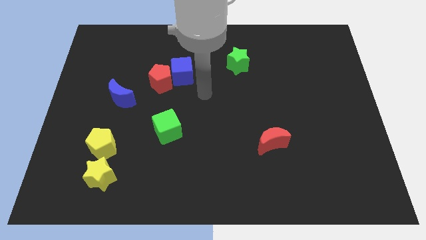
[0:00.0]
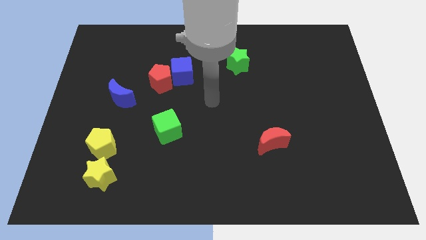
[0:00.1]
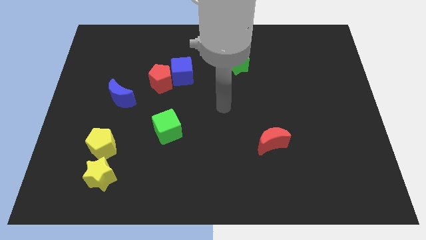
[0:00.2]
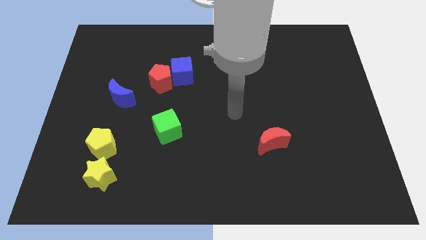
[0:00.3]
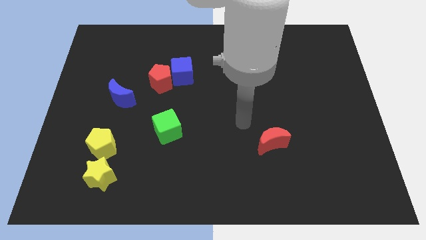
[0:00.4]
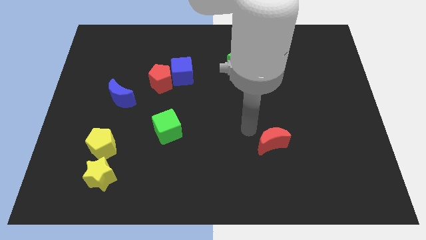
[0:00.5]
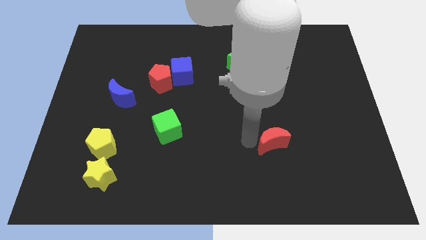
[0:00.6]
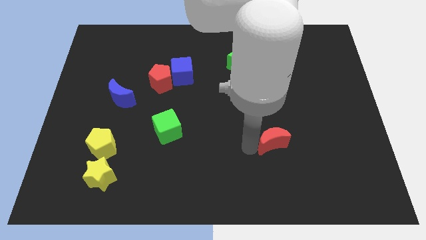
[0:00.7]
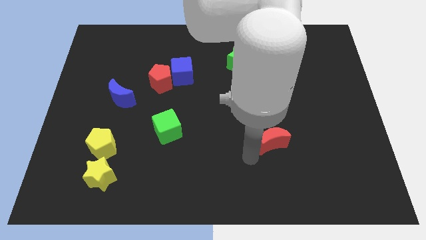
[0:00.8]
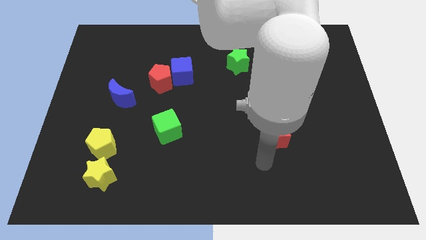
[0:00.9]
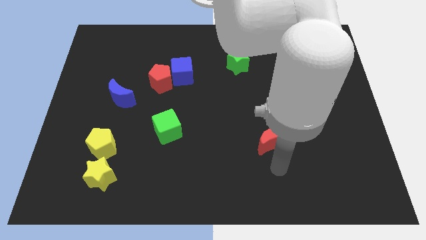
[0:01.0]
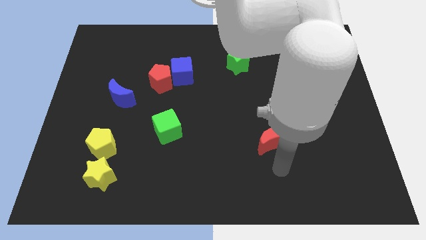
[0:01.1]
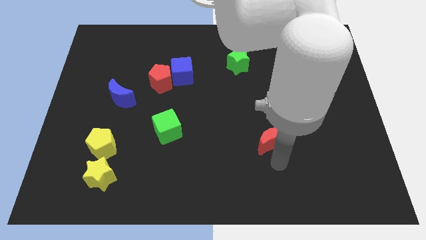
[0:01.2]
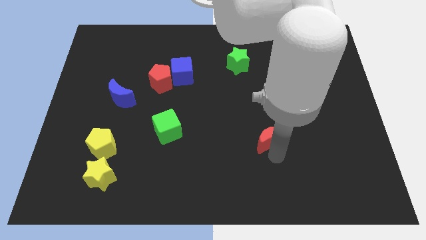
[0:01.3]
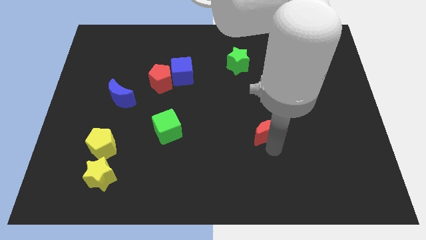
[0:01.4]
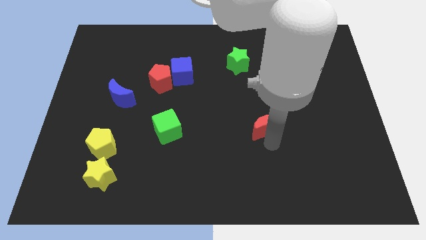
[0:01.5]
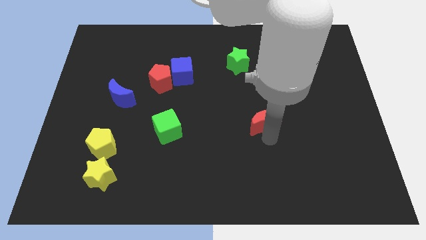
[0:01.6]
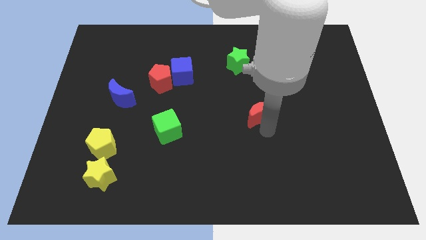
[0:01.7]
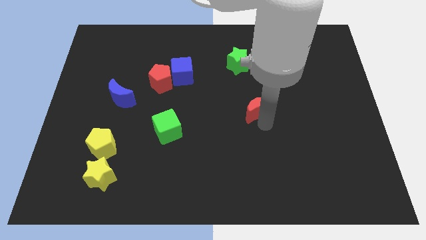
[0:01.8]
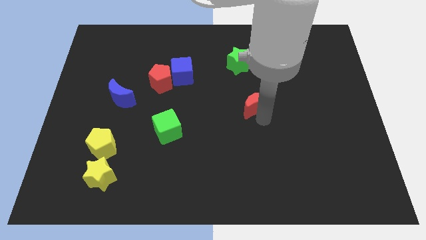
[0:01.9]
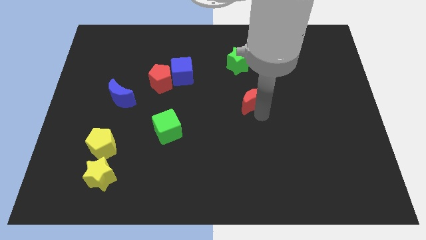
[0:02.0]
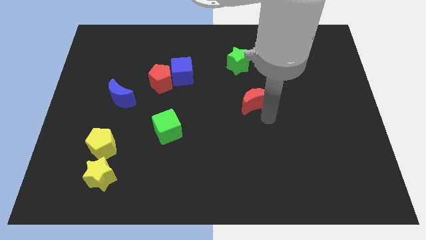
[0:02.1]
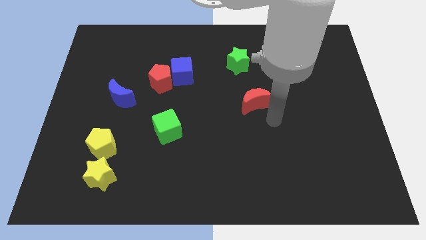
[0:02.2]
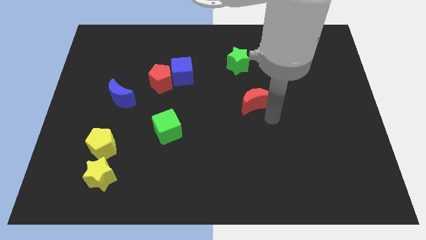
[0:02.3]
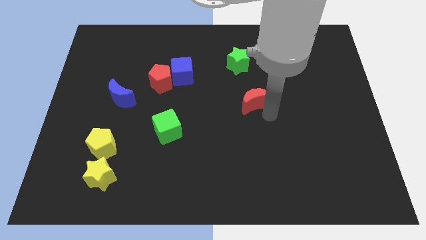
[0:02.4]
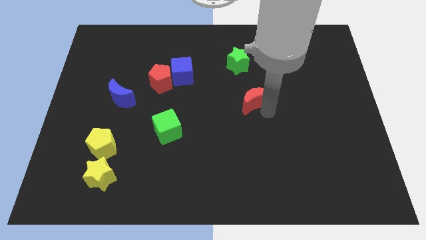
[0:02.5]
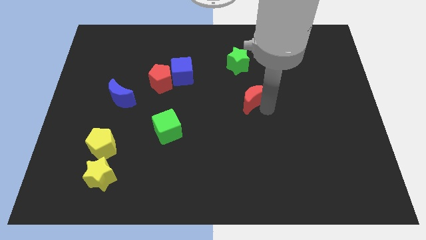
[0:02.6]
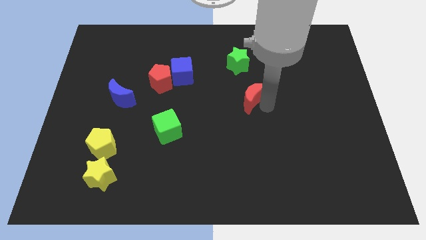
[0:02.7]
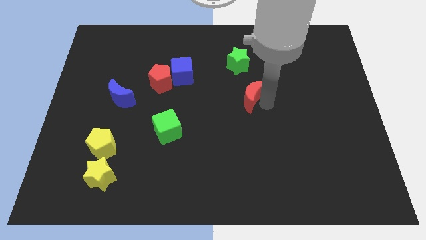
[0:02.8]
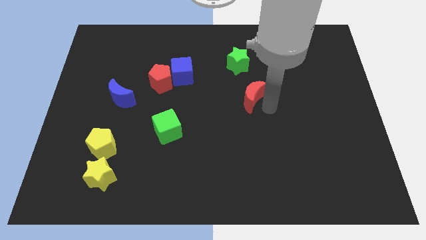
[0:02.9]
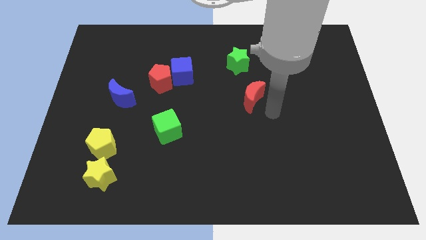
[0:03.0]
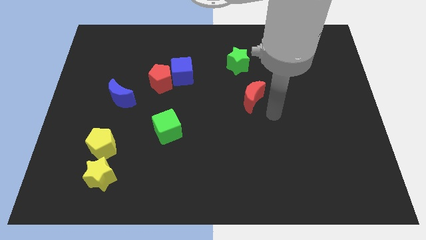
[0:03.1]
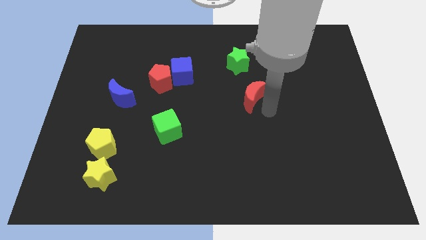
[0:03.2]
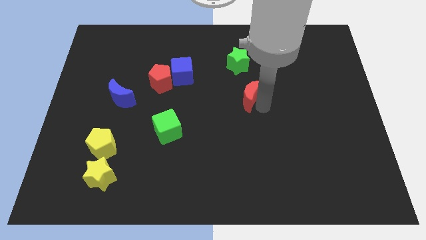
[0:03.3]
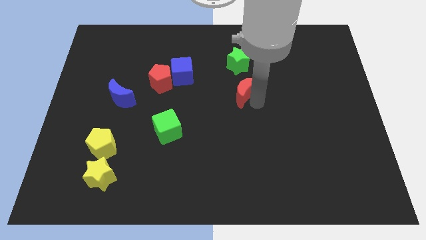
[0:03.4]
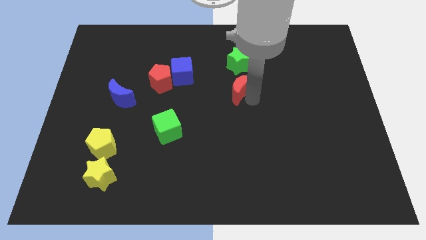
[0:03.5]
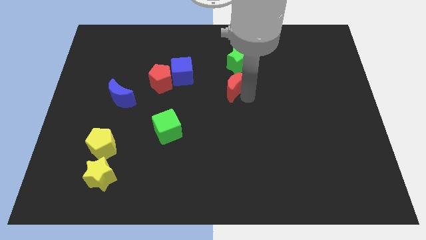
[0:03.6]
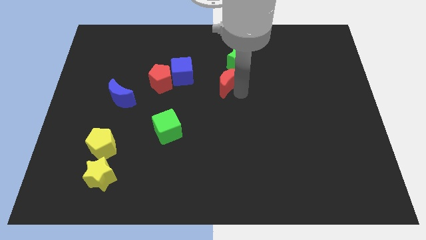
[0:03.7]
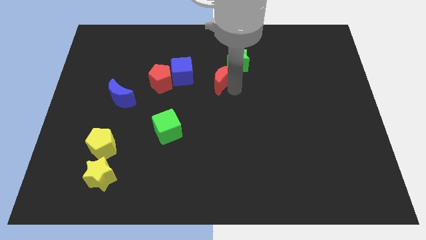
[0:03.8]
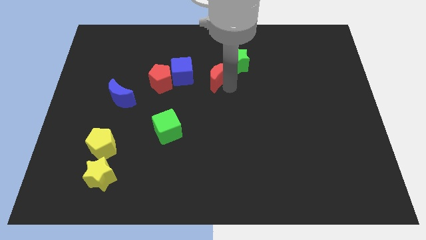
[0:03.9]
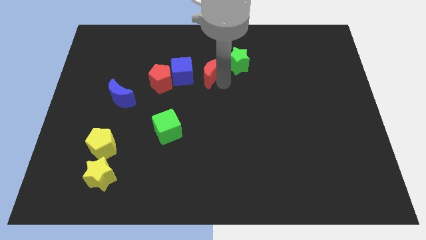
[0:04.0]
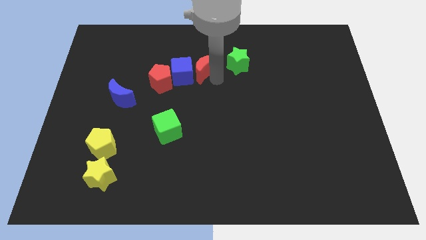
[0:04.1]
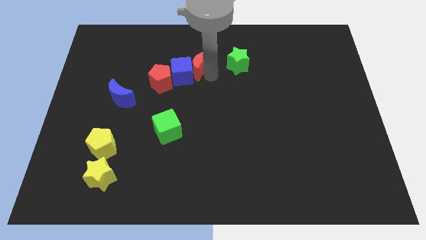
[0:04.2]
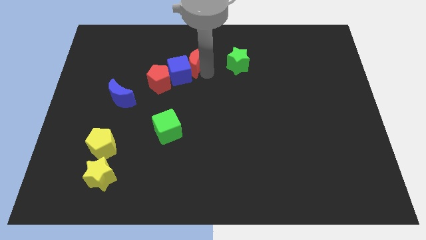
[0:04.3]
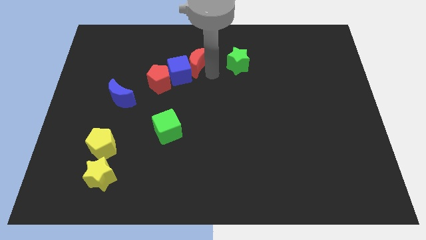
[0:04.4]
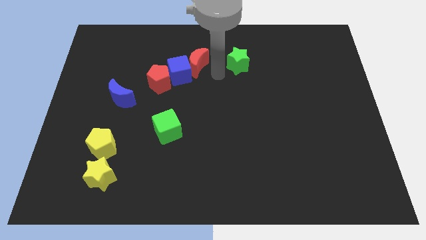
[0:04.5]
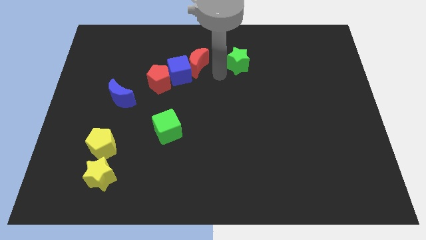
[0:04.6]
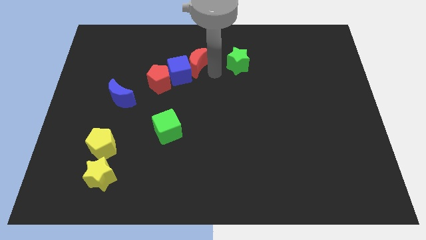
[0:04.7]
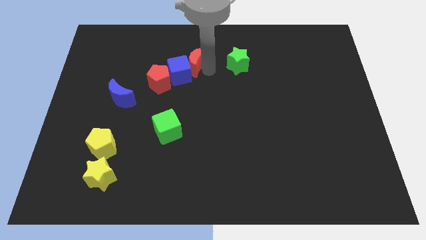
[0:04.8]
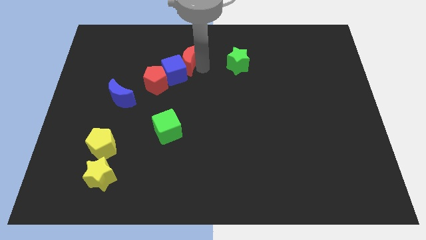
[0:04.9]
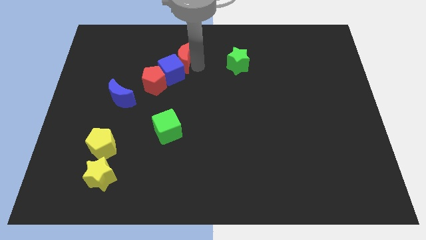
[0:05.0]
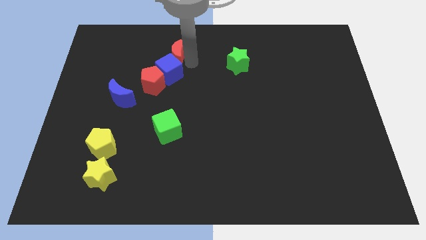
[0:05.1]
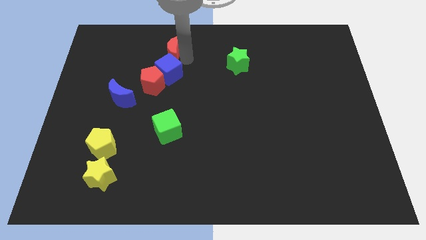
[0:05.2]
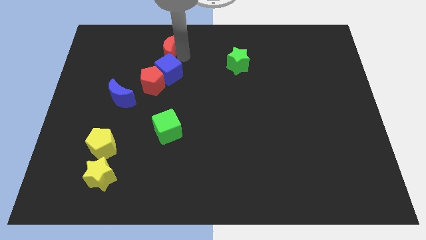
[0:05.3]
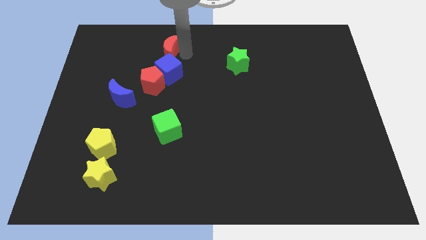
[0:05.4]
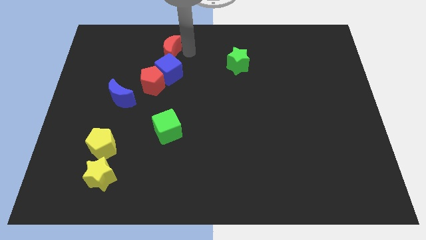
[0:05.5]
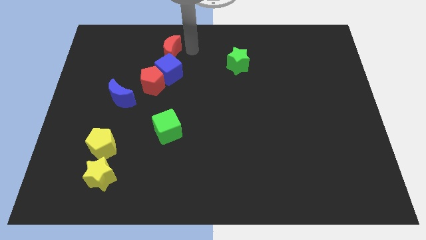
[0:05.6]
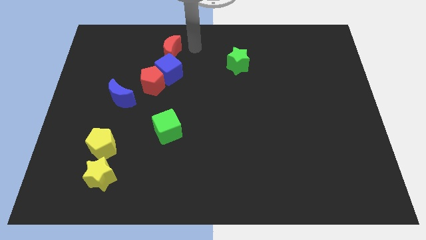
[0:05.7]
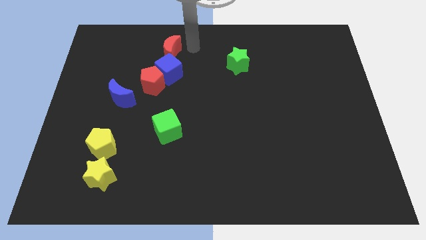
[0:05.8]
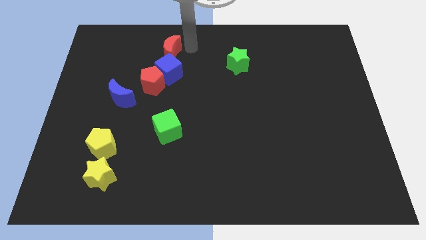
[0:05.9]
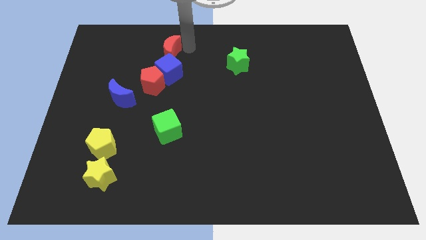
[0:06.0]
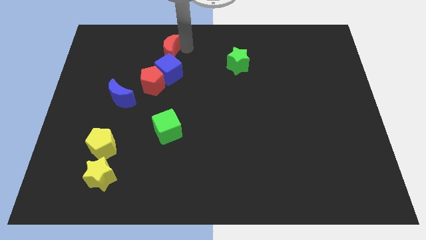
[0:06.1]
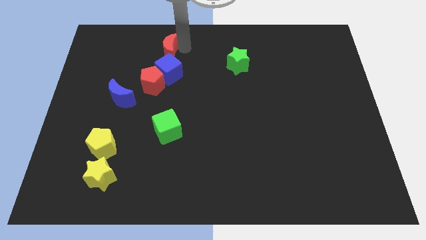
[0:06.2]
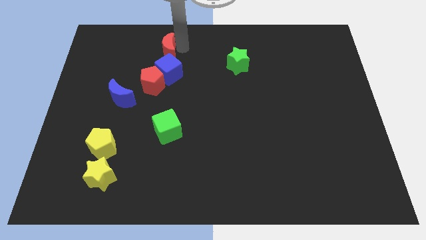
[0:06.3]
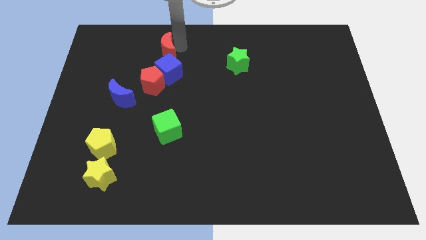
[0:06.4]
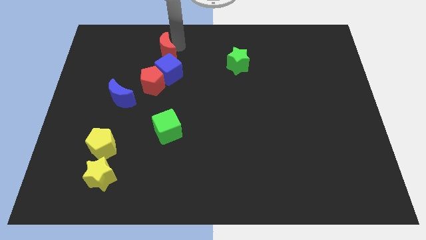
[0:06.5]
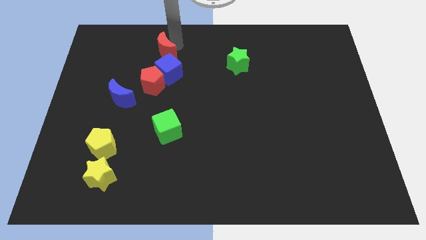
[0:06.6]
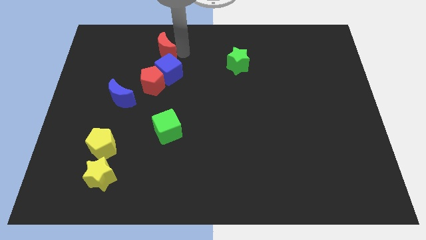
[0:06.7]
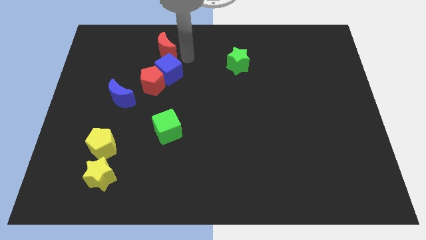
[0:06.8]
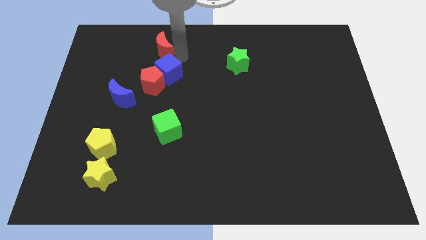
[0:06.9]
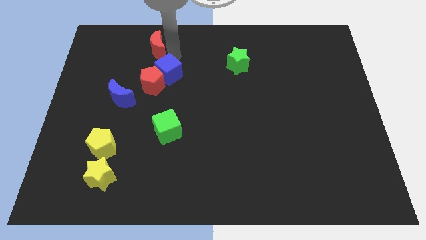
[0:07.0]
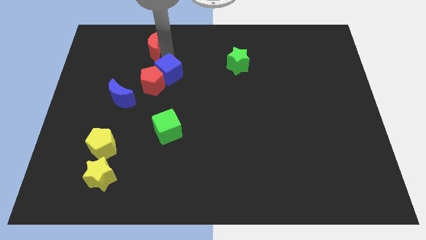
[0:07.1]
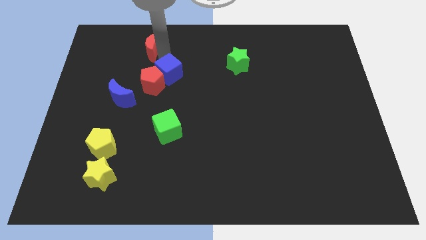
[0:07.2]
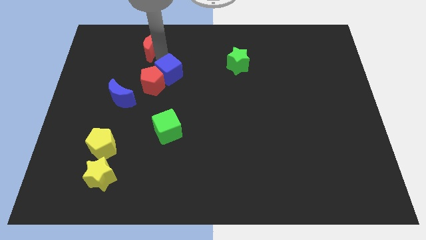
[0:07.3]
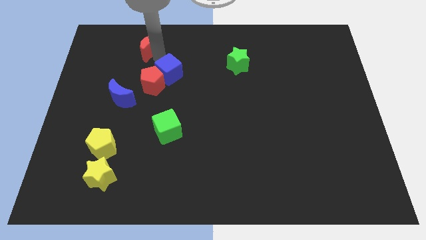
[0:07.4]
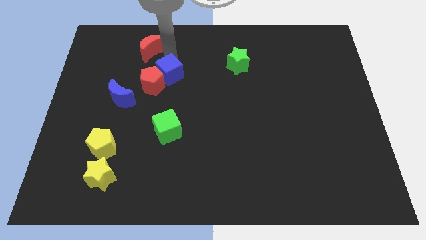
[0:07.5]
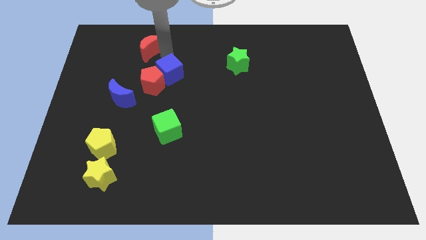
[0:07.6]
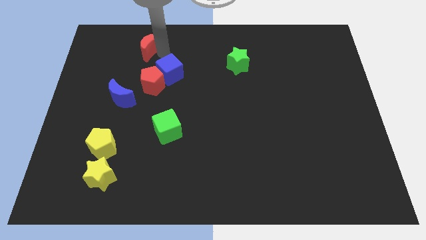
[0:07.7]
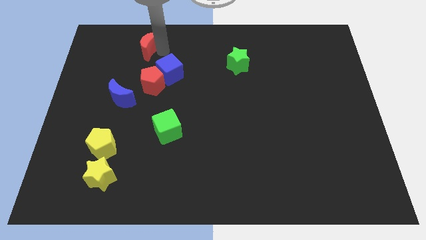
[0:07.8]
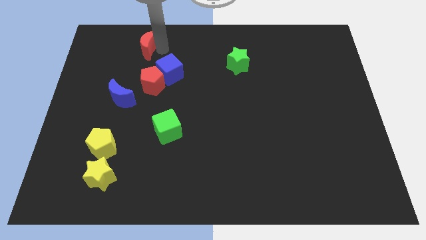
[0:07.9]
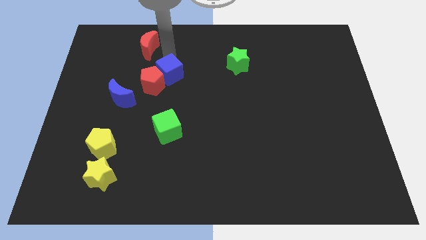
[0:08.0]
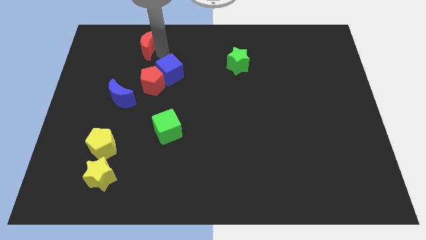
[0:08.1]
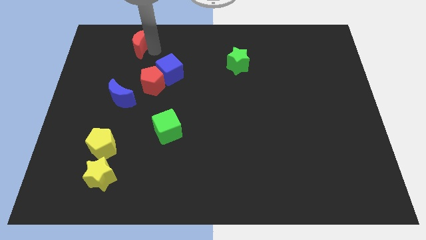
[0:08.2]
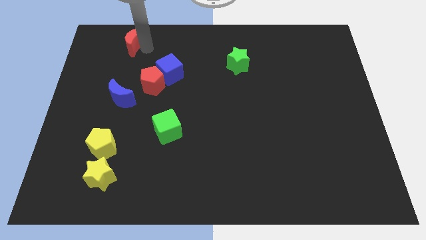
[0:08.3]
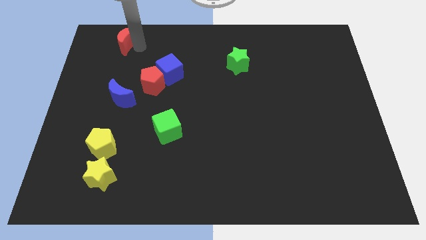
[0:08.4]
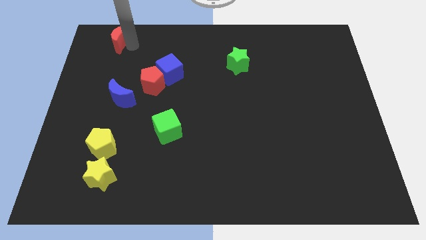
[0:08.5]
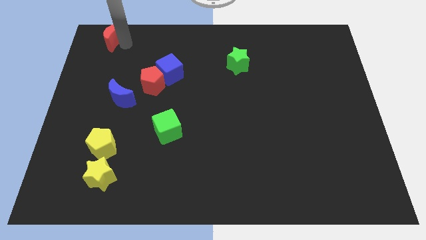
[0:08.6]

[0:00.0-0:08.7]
move the red moon to the top left of the board
